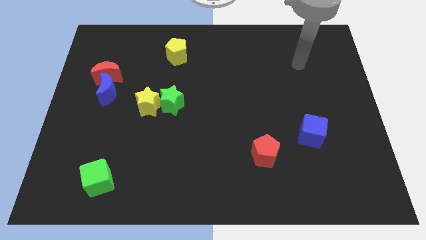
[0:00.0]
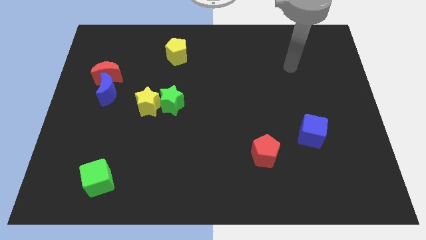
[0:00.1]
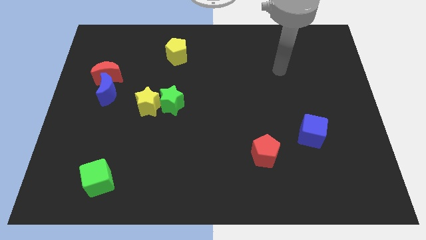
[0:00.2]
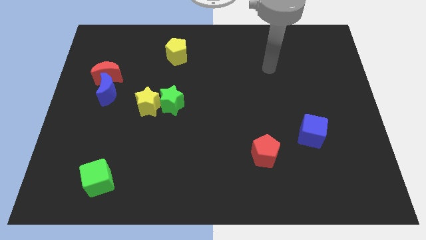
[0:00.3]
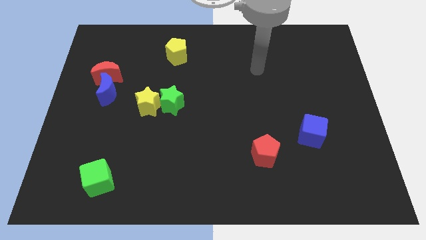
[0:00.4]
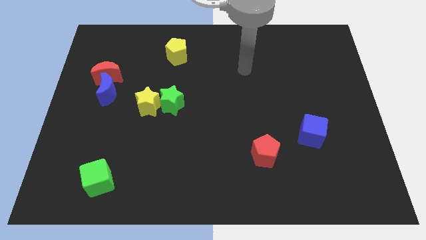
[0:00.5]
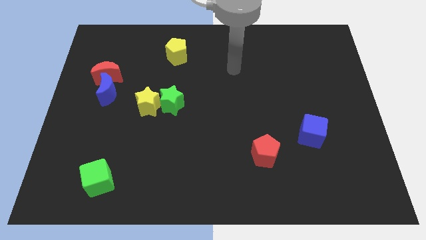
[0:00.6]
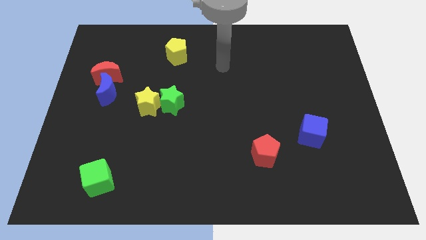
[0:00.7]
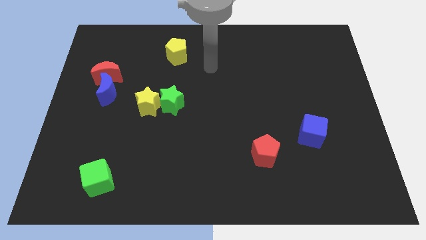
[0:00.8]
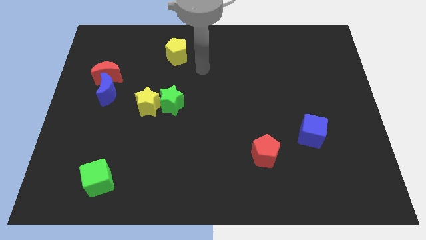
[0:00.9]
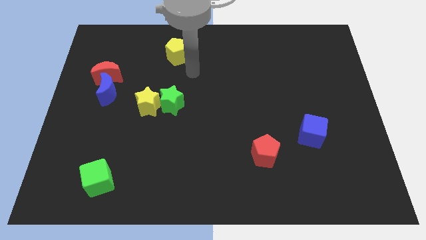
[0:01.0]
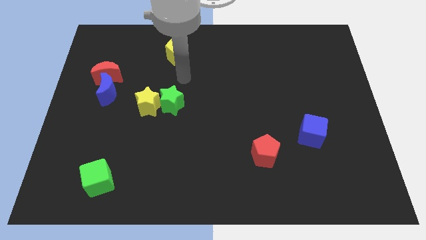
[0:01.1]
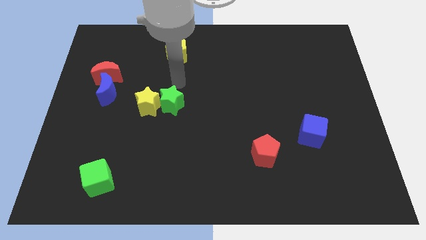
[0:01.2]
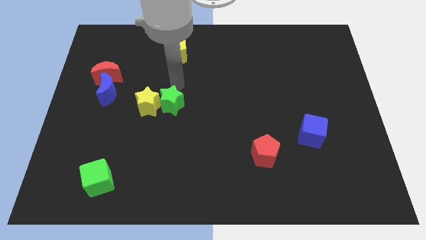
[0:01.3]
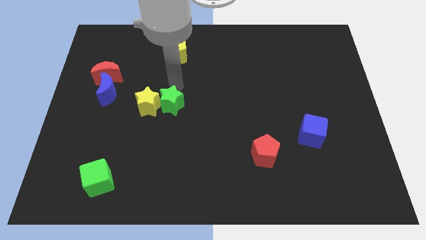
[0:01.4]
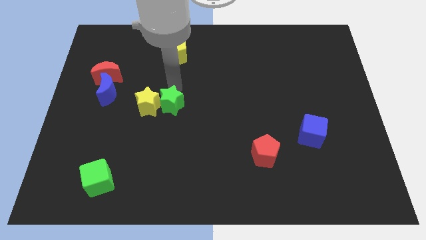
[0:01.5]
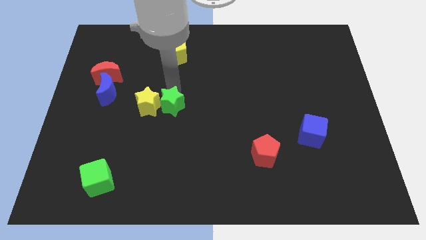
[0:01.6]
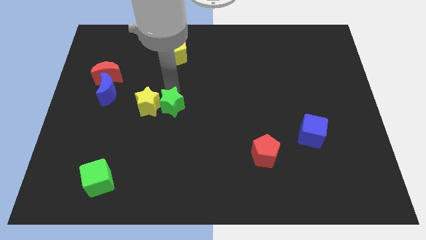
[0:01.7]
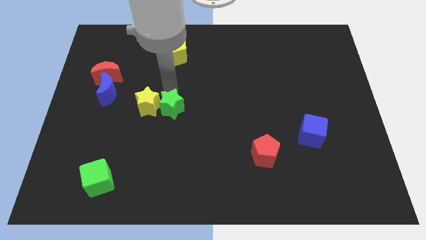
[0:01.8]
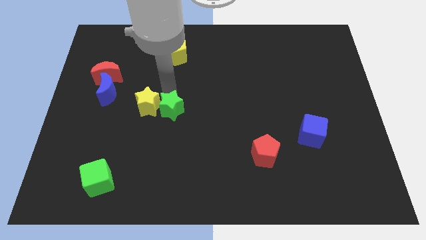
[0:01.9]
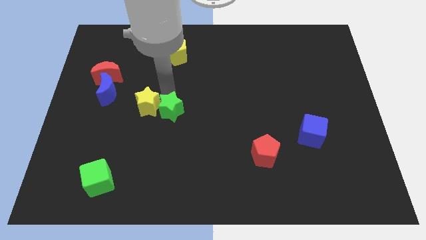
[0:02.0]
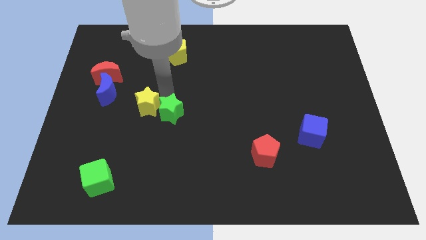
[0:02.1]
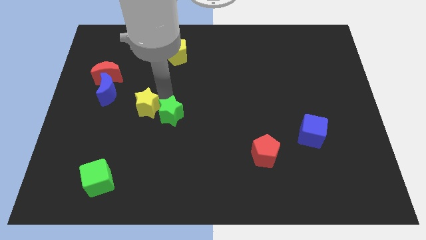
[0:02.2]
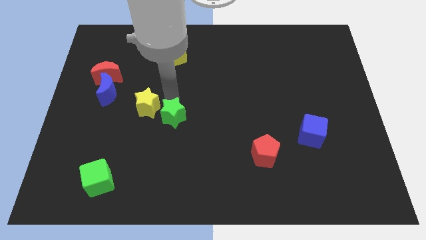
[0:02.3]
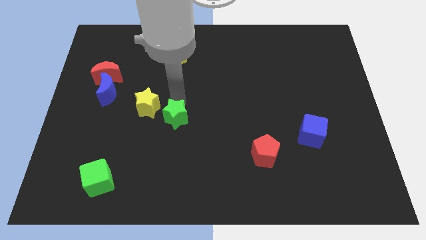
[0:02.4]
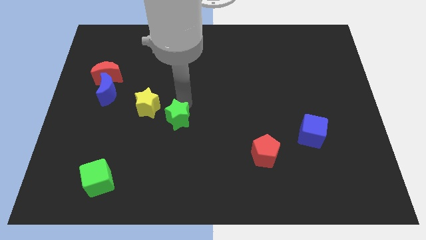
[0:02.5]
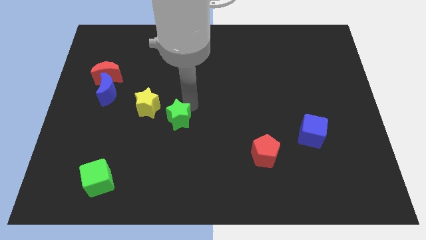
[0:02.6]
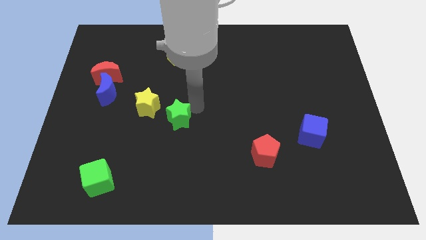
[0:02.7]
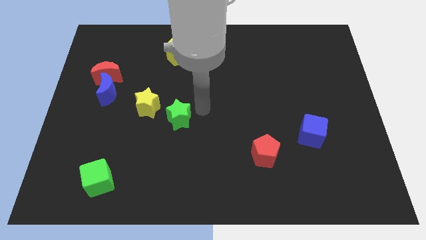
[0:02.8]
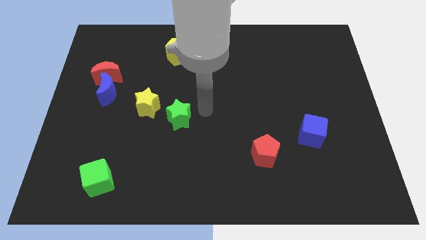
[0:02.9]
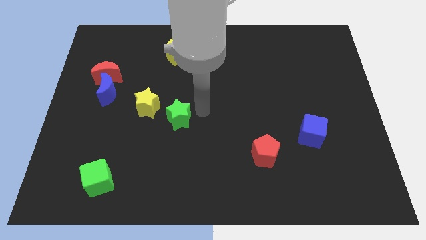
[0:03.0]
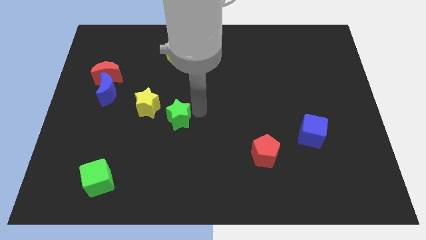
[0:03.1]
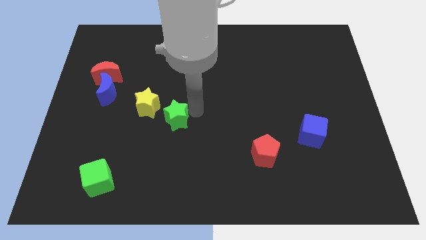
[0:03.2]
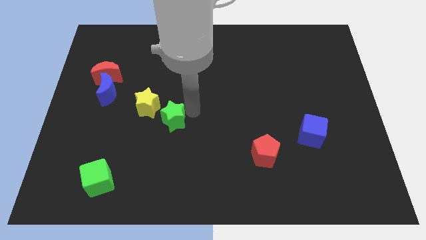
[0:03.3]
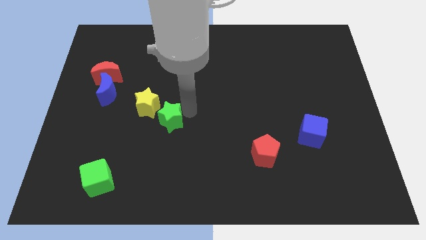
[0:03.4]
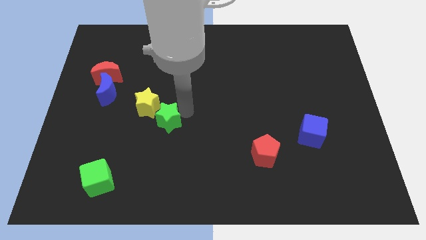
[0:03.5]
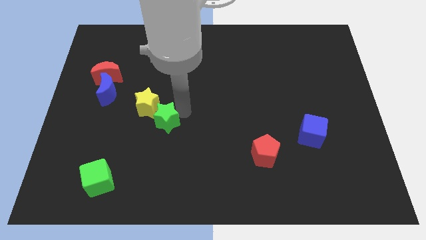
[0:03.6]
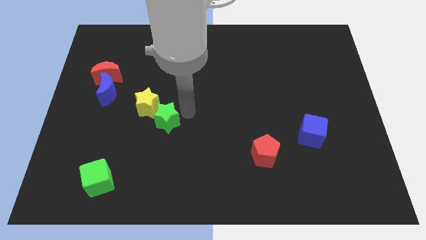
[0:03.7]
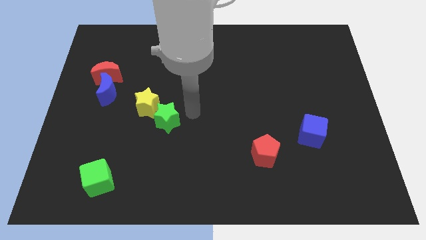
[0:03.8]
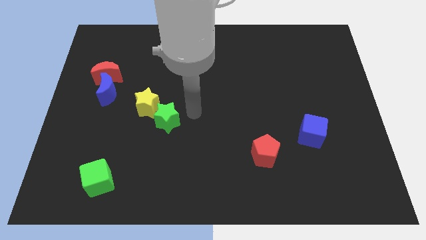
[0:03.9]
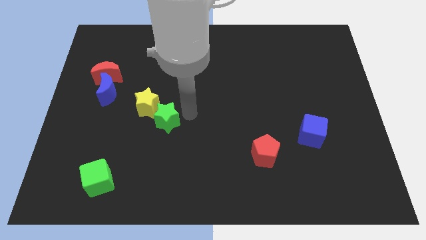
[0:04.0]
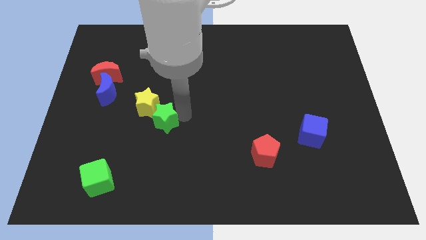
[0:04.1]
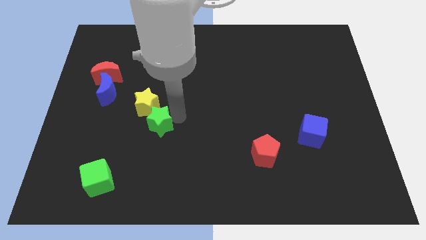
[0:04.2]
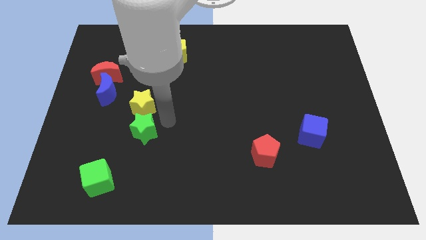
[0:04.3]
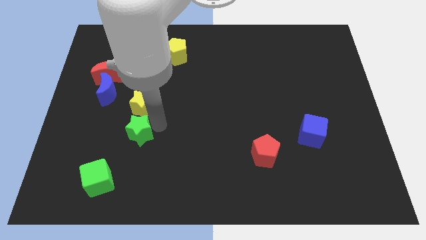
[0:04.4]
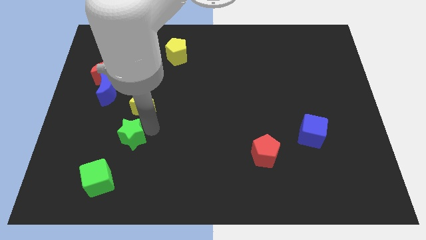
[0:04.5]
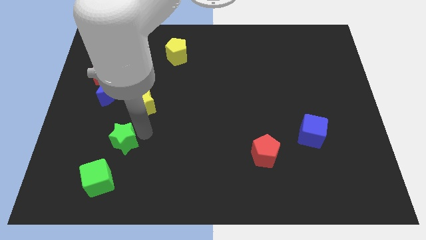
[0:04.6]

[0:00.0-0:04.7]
put the green star above the green cube

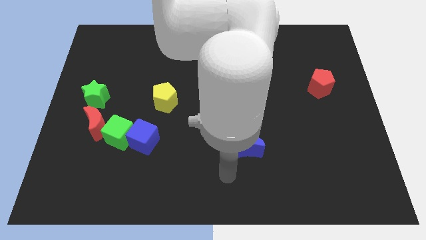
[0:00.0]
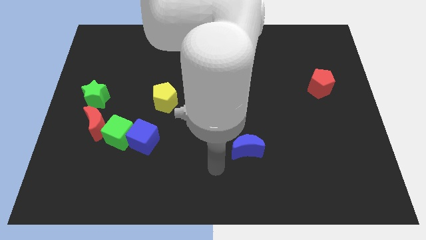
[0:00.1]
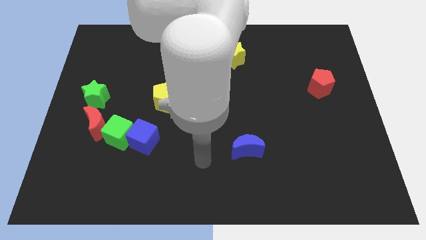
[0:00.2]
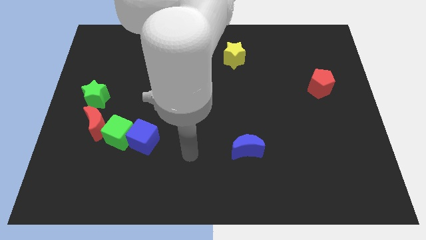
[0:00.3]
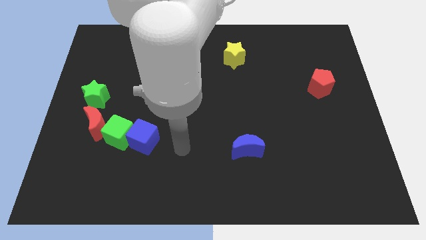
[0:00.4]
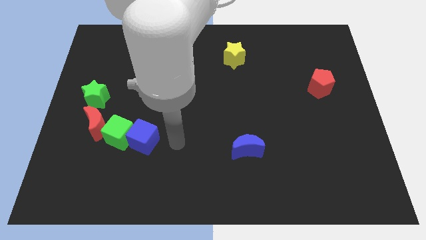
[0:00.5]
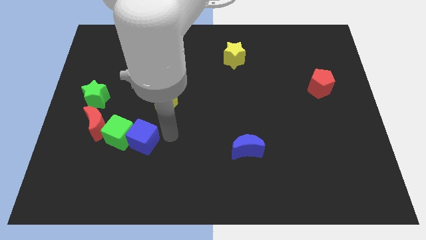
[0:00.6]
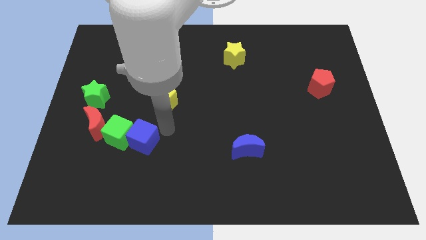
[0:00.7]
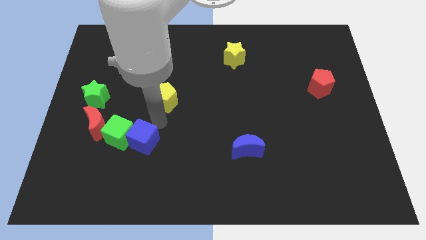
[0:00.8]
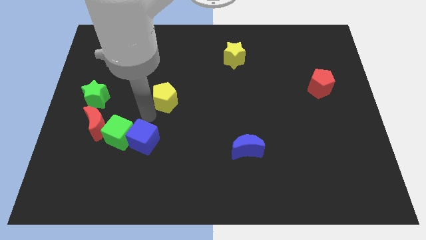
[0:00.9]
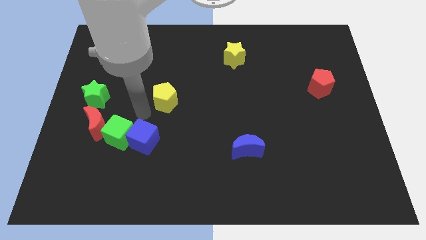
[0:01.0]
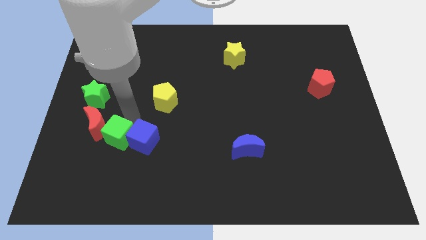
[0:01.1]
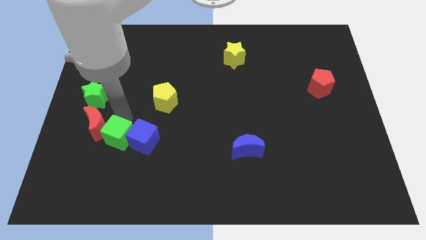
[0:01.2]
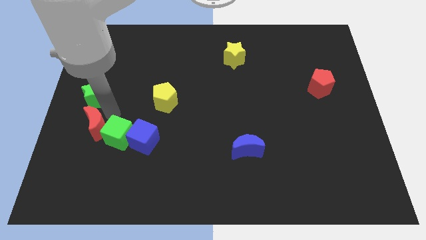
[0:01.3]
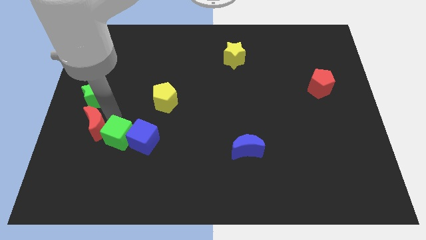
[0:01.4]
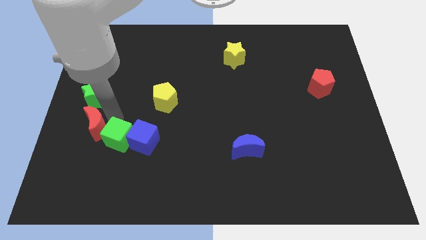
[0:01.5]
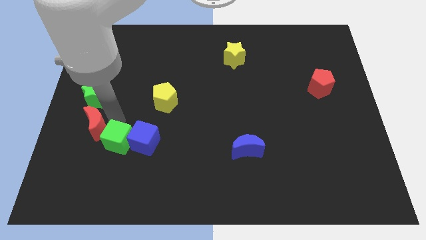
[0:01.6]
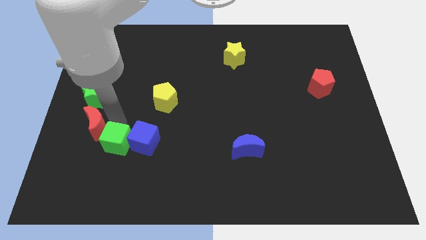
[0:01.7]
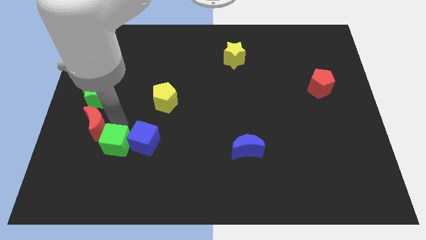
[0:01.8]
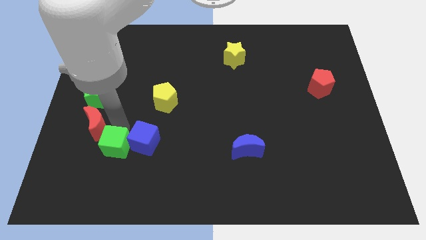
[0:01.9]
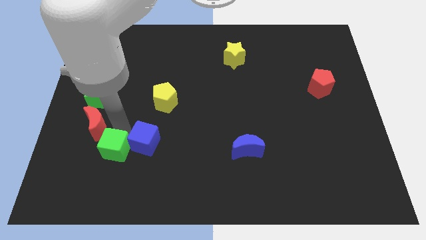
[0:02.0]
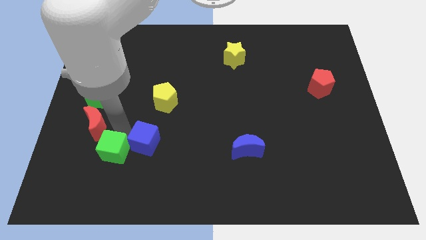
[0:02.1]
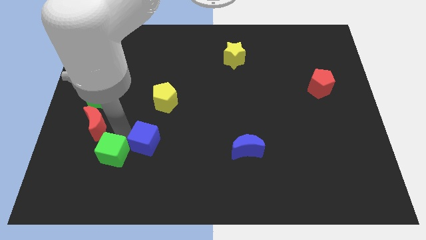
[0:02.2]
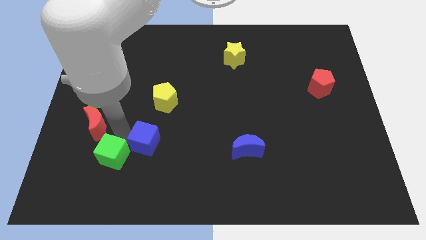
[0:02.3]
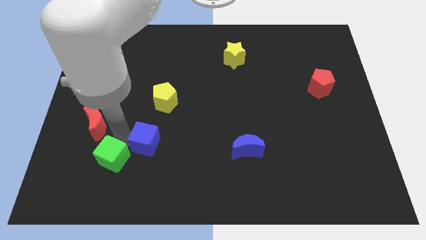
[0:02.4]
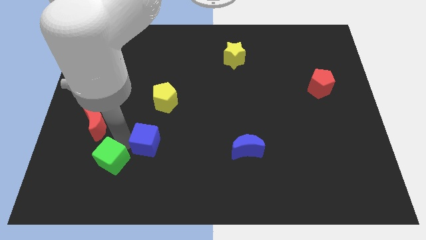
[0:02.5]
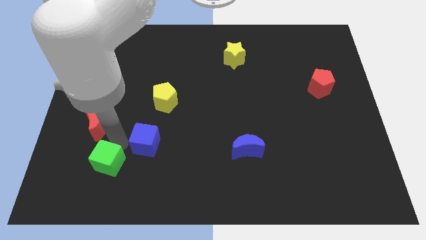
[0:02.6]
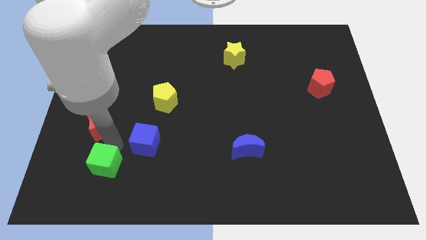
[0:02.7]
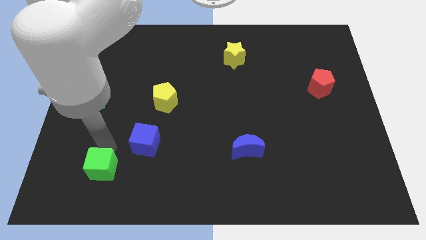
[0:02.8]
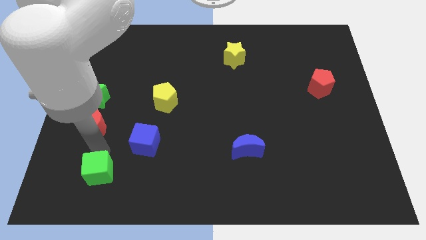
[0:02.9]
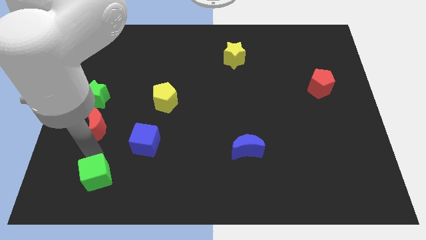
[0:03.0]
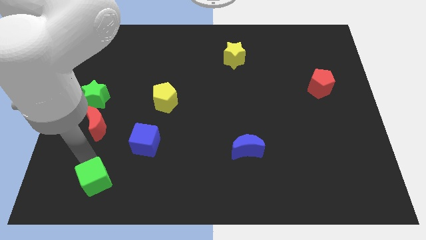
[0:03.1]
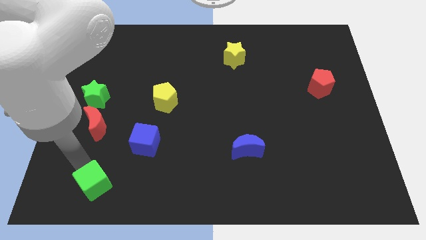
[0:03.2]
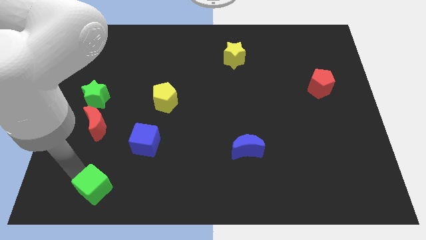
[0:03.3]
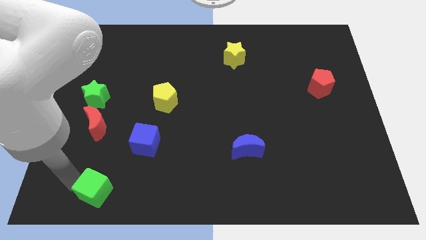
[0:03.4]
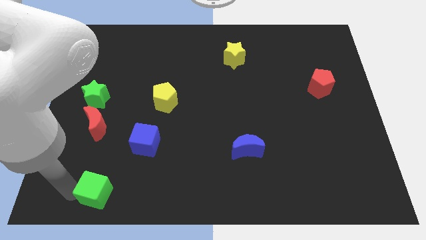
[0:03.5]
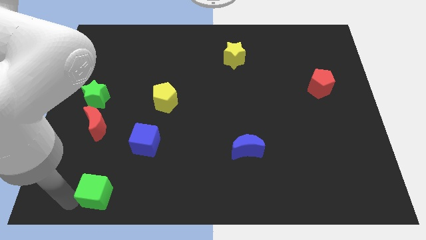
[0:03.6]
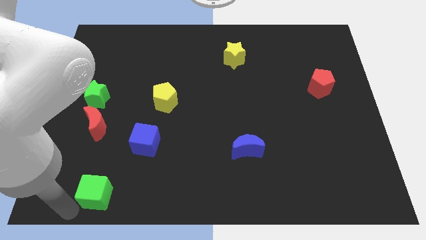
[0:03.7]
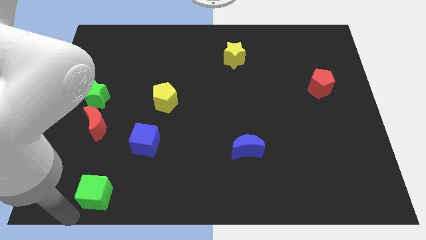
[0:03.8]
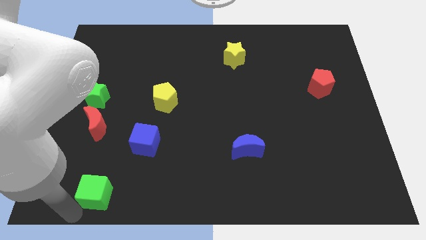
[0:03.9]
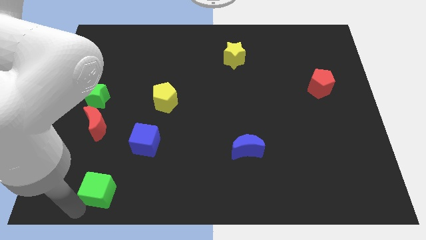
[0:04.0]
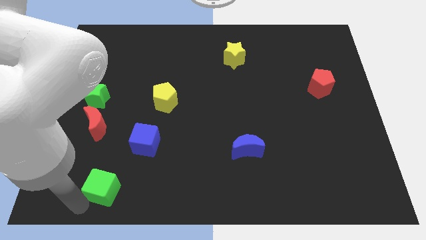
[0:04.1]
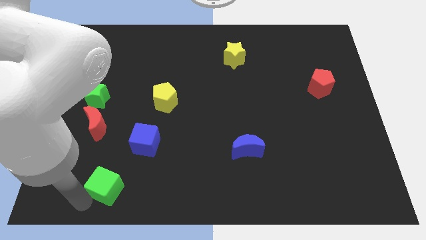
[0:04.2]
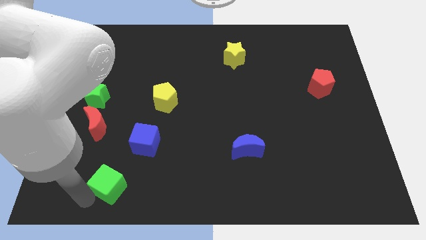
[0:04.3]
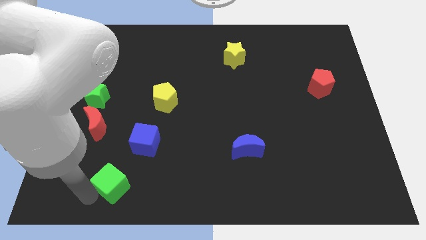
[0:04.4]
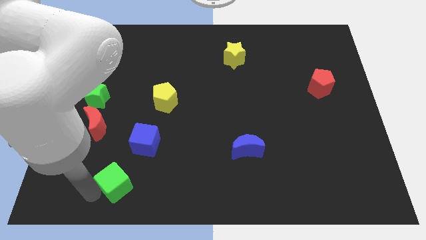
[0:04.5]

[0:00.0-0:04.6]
slide the green cube below the blue cube
